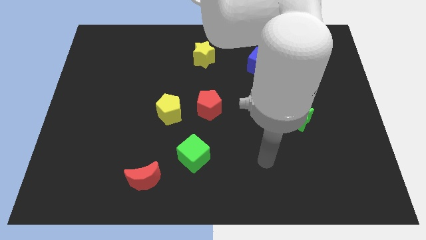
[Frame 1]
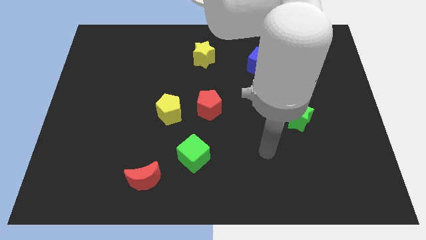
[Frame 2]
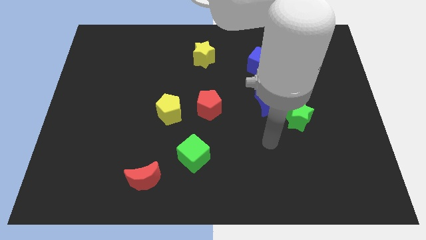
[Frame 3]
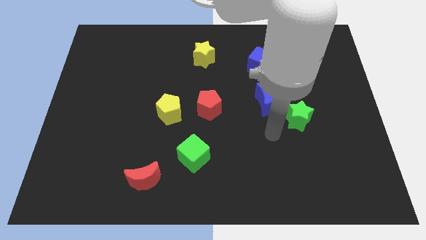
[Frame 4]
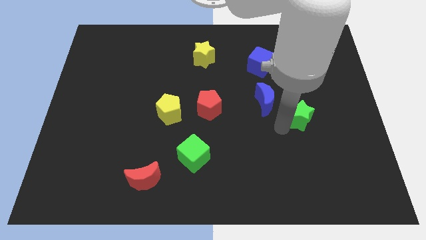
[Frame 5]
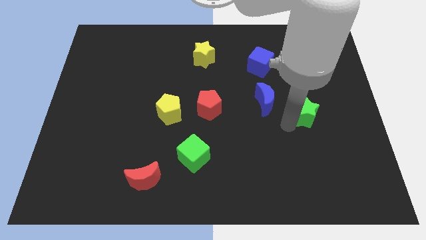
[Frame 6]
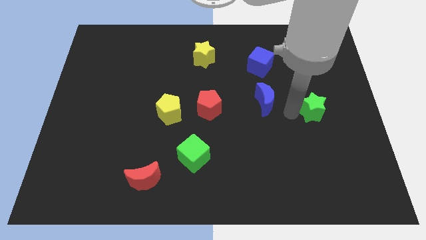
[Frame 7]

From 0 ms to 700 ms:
separate the blue moon from the green star

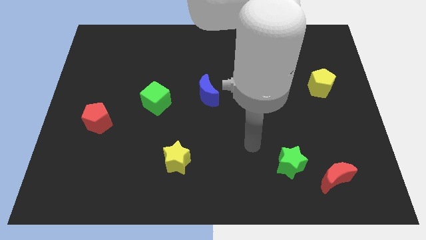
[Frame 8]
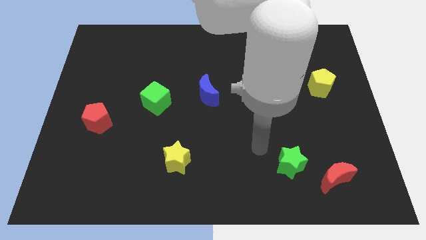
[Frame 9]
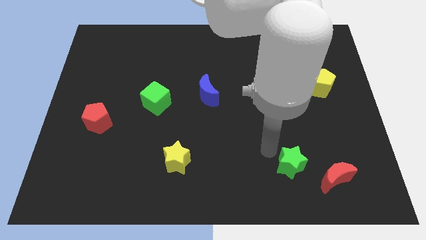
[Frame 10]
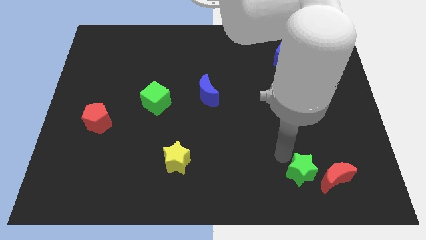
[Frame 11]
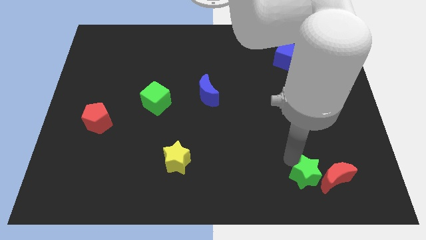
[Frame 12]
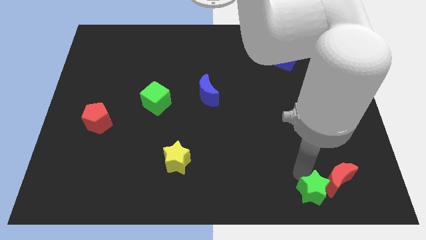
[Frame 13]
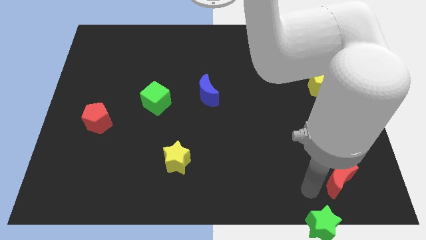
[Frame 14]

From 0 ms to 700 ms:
move the red moon away from the green star

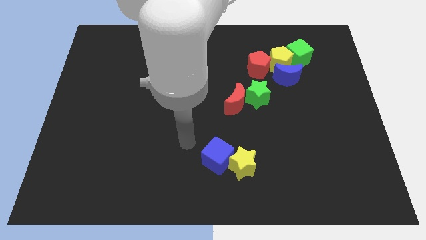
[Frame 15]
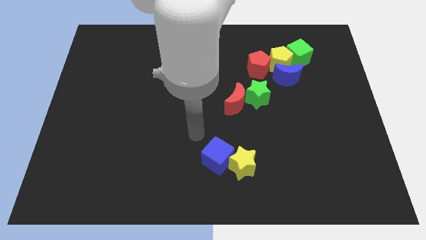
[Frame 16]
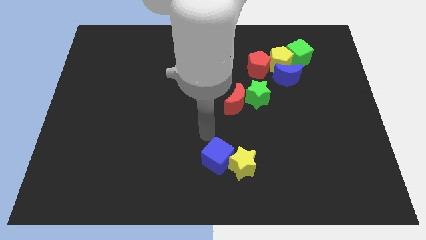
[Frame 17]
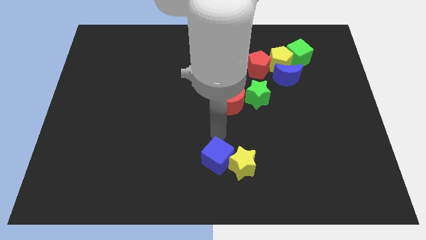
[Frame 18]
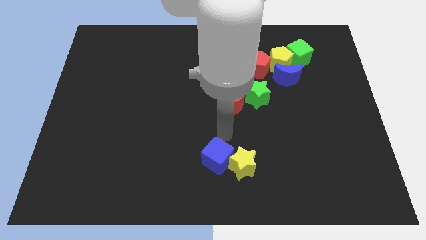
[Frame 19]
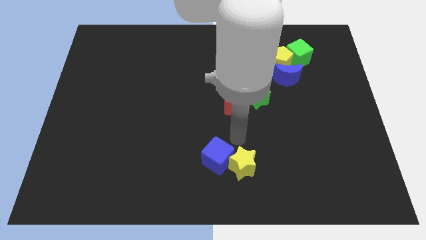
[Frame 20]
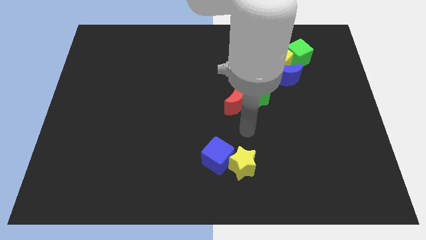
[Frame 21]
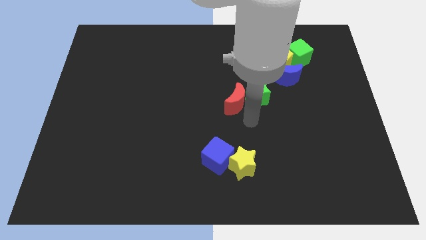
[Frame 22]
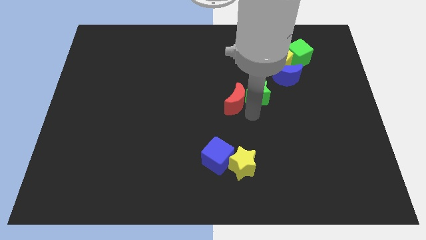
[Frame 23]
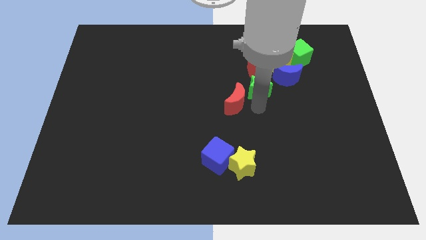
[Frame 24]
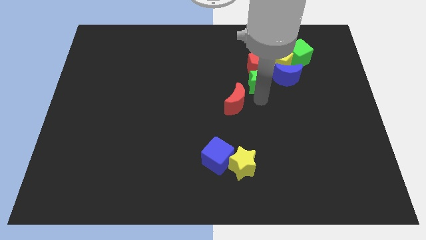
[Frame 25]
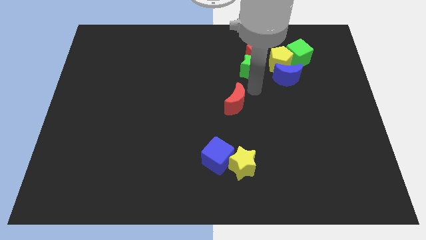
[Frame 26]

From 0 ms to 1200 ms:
pull the red moon apart from the green star

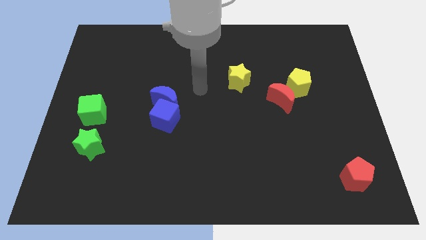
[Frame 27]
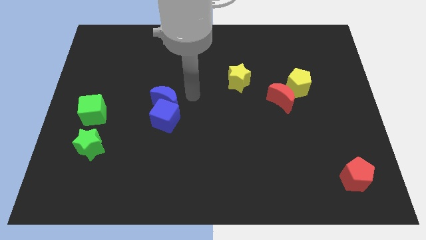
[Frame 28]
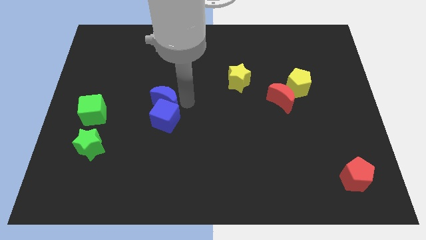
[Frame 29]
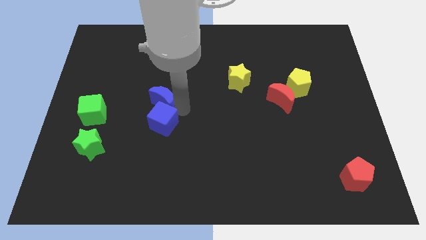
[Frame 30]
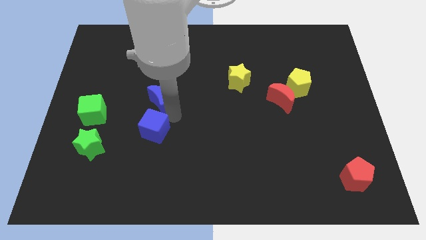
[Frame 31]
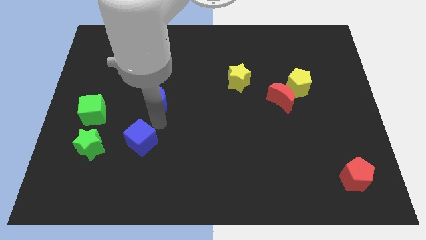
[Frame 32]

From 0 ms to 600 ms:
separate the blue moon from the blue cube

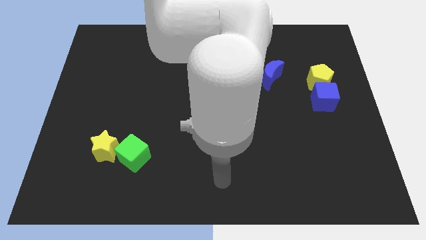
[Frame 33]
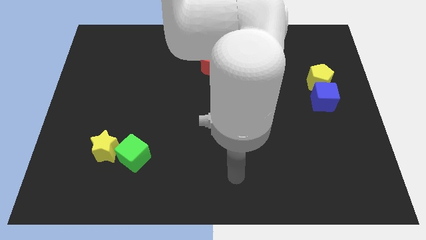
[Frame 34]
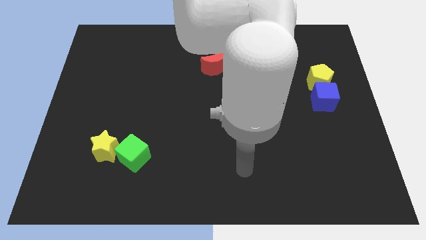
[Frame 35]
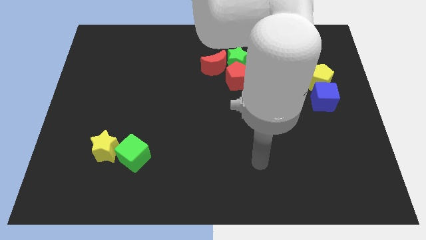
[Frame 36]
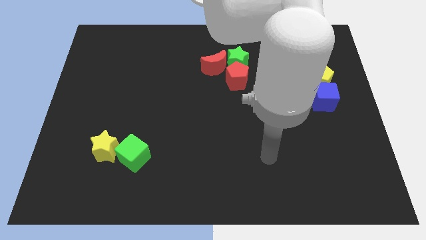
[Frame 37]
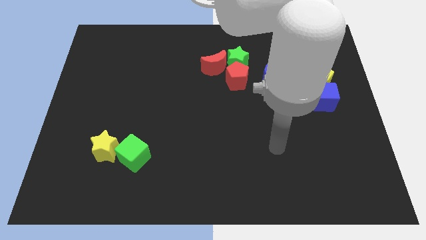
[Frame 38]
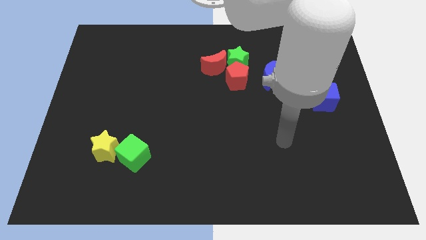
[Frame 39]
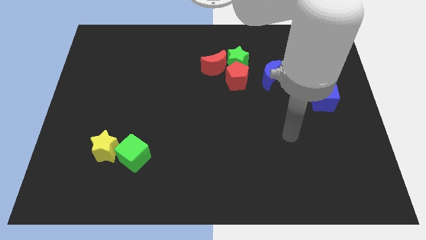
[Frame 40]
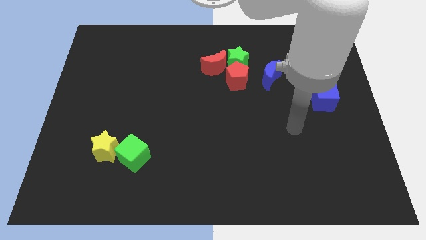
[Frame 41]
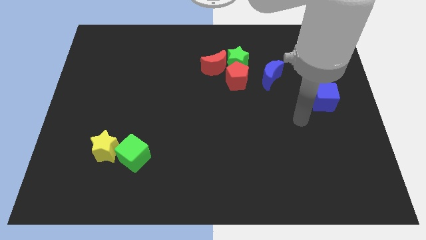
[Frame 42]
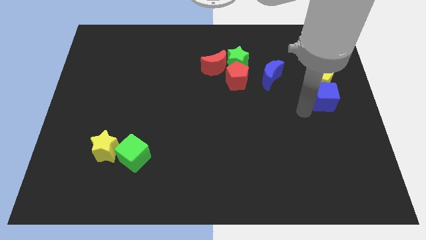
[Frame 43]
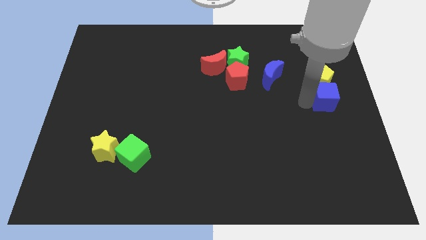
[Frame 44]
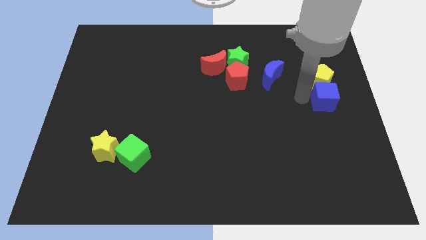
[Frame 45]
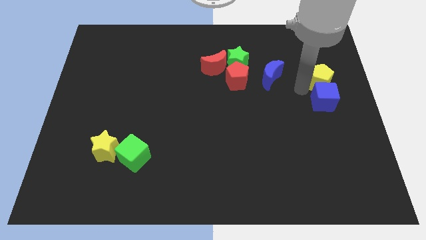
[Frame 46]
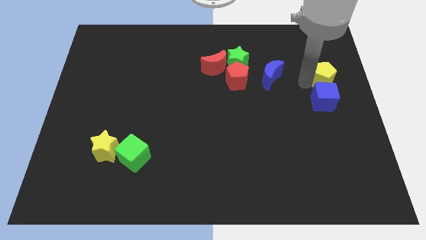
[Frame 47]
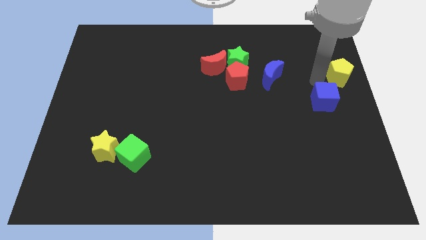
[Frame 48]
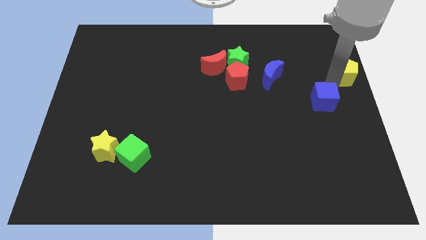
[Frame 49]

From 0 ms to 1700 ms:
pull the blue cube apart from the yellow pentagon

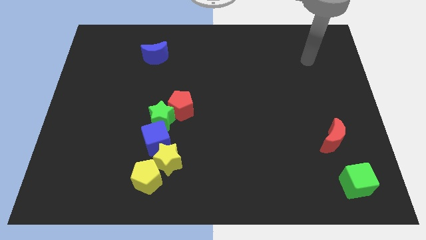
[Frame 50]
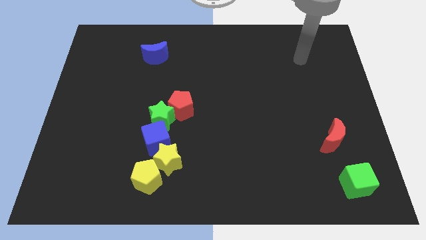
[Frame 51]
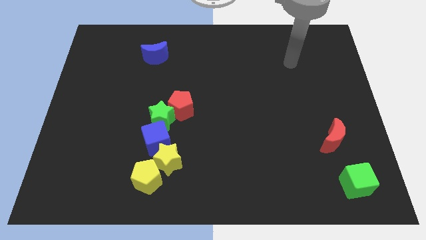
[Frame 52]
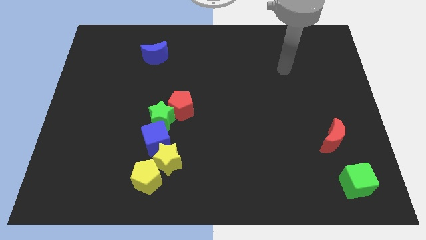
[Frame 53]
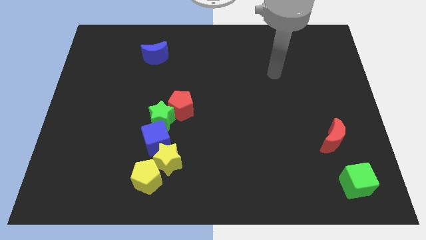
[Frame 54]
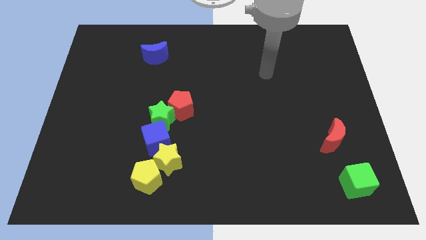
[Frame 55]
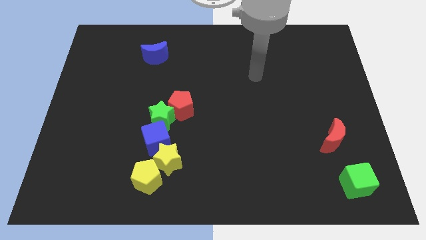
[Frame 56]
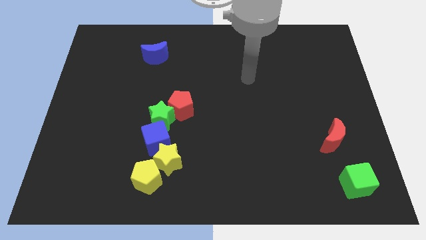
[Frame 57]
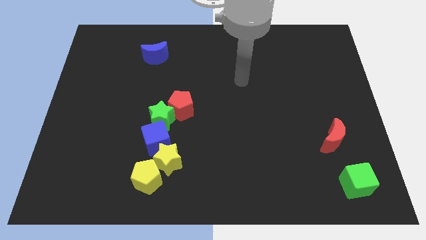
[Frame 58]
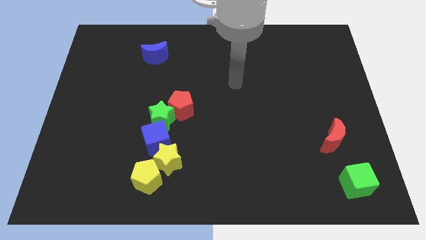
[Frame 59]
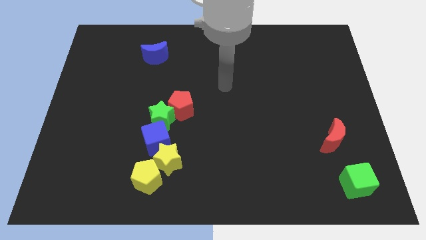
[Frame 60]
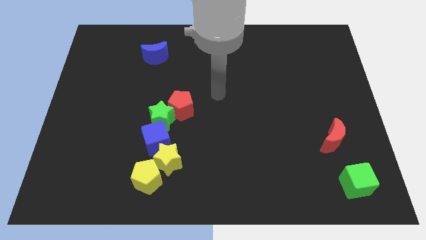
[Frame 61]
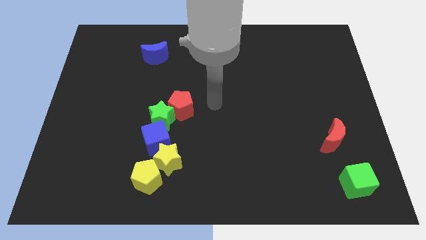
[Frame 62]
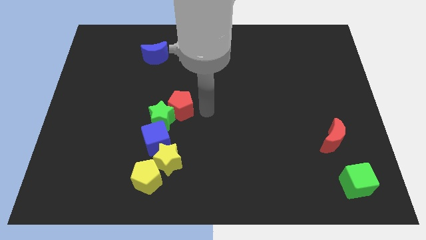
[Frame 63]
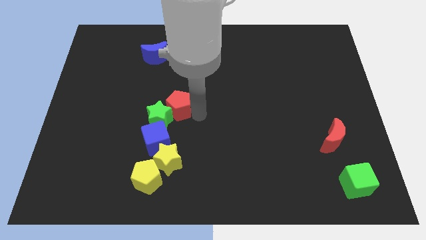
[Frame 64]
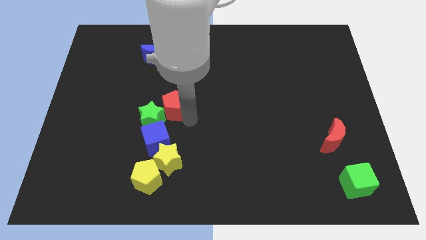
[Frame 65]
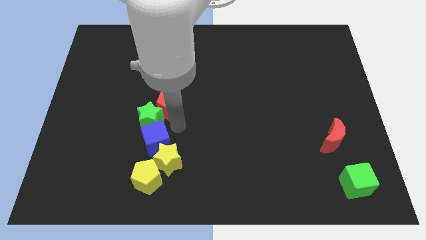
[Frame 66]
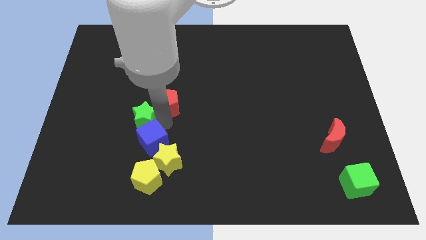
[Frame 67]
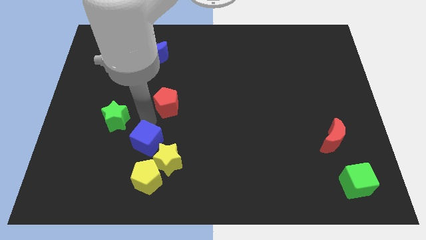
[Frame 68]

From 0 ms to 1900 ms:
pull the red pentagon apart from the green star

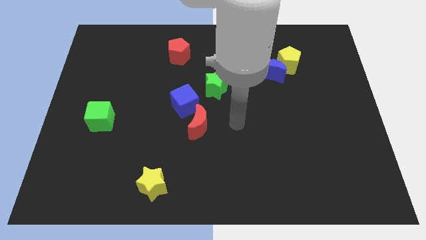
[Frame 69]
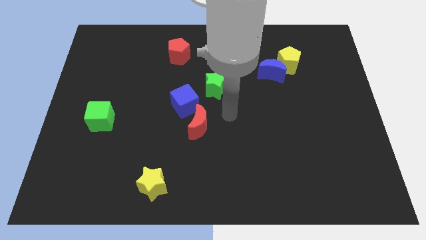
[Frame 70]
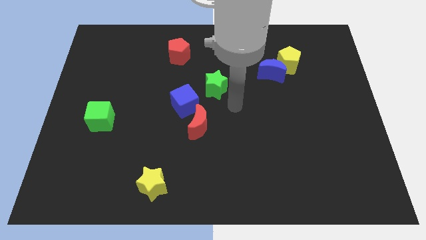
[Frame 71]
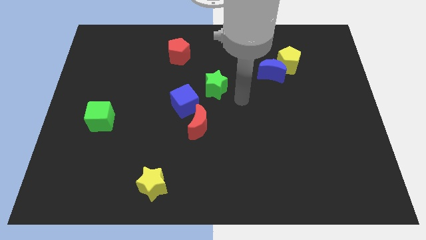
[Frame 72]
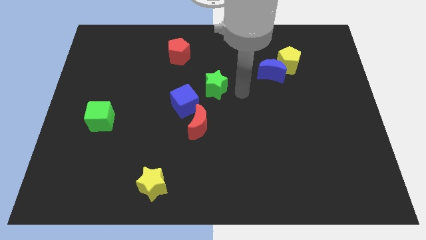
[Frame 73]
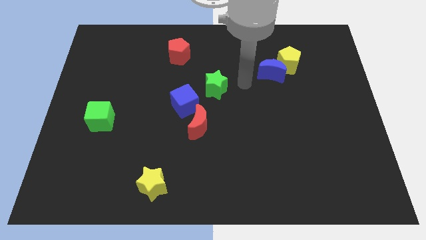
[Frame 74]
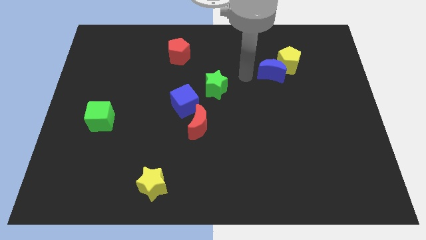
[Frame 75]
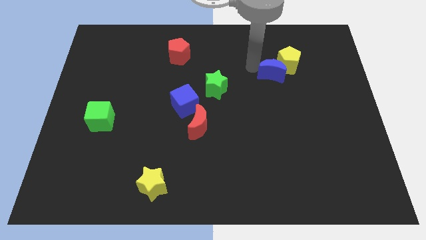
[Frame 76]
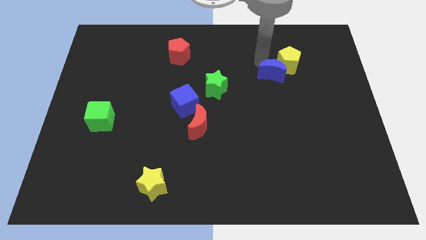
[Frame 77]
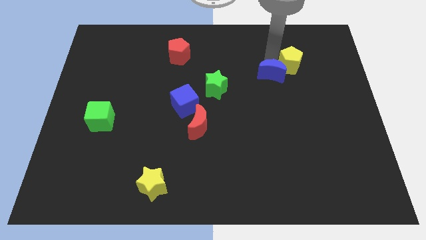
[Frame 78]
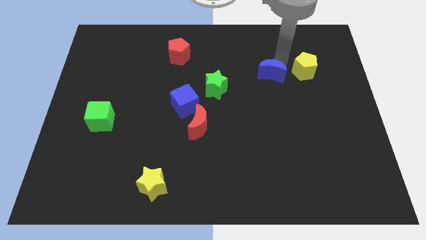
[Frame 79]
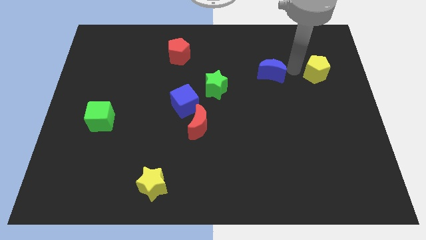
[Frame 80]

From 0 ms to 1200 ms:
separate the blue moon from the yellow pentagon

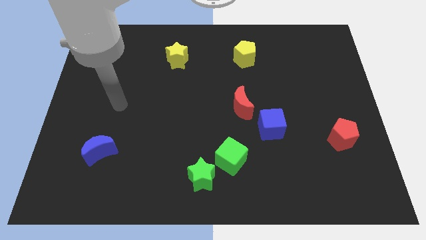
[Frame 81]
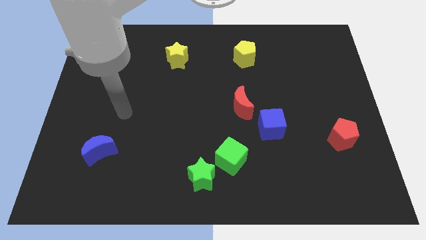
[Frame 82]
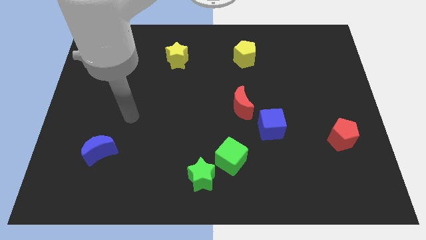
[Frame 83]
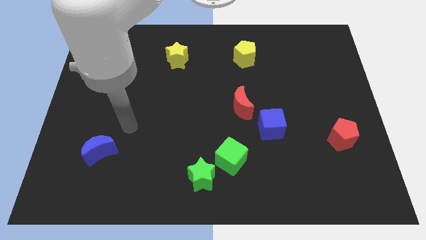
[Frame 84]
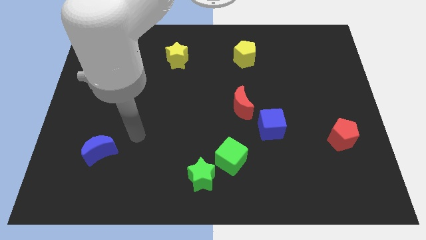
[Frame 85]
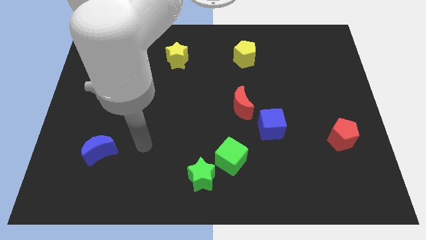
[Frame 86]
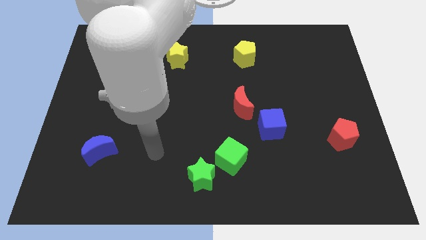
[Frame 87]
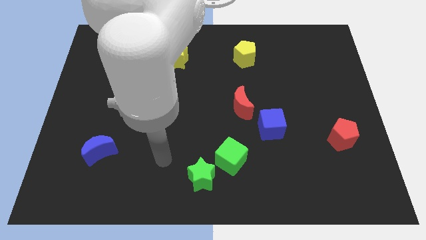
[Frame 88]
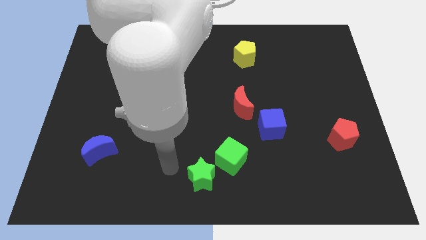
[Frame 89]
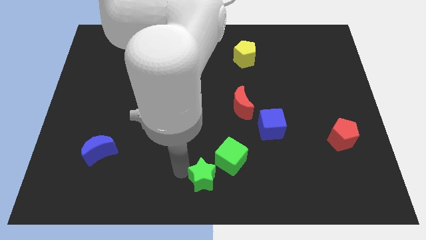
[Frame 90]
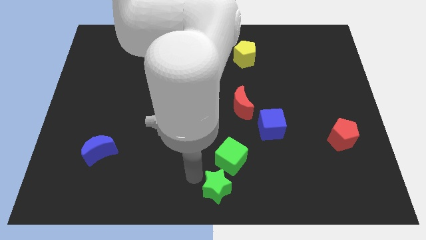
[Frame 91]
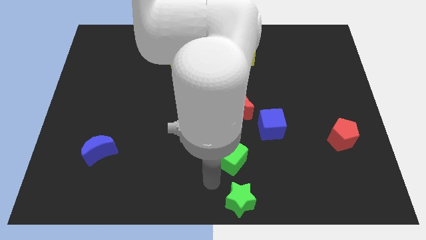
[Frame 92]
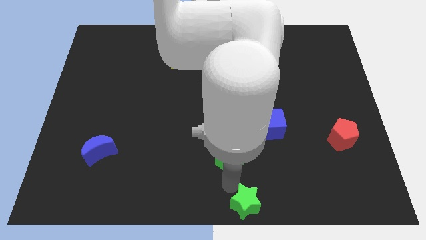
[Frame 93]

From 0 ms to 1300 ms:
move the green cube away from the green star
